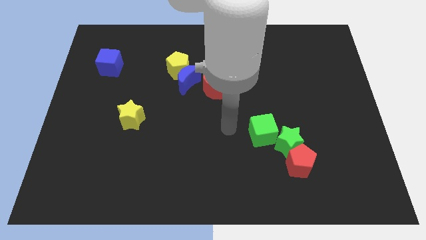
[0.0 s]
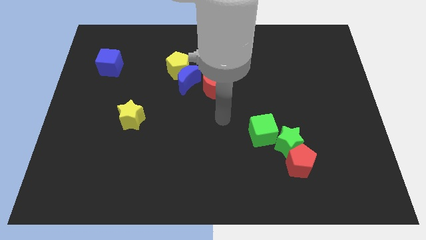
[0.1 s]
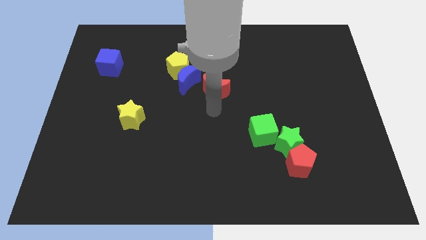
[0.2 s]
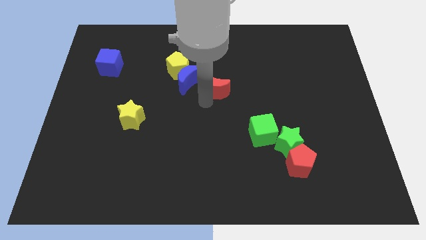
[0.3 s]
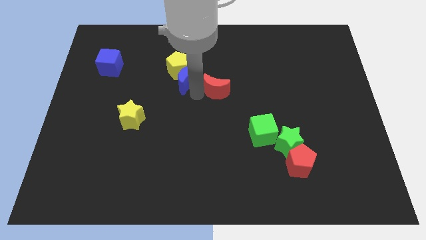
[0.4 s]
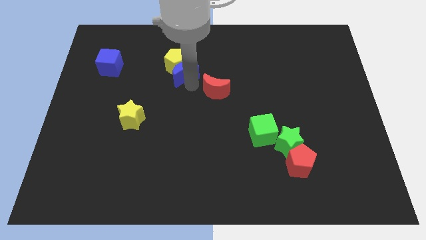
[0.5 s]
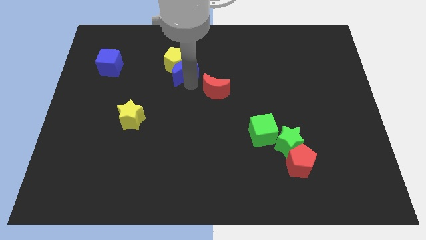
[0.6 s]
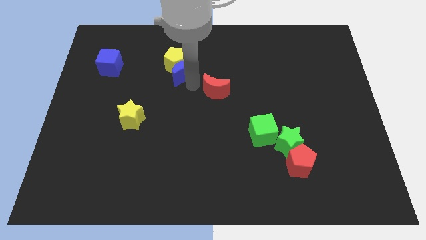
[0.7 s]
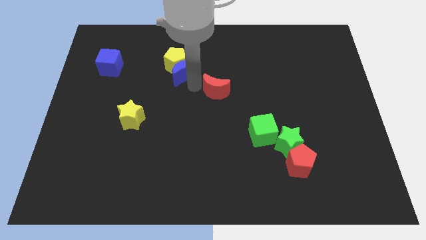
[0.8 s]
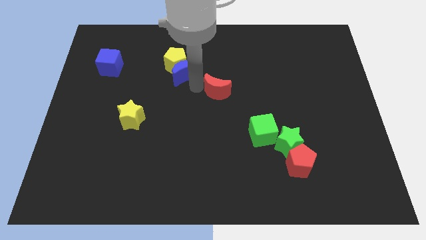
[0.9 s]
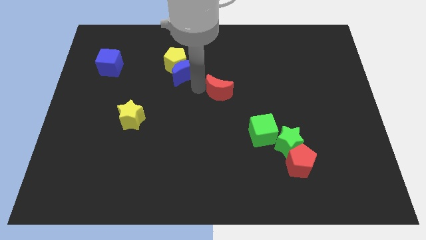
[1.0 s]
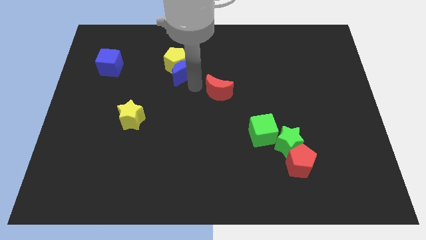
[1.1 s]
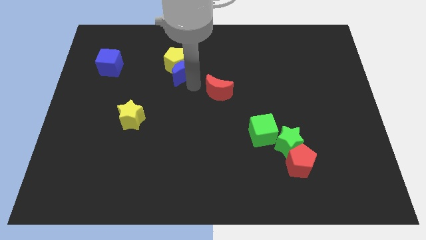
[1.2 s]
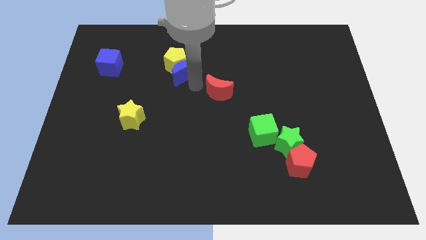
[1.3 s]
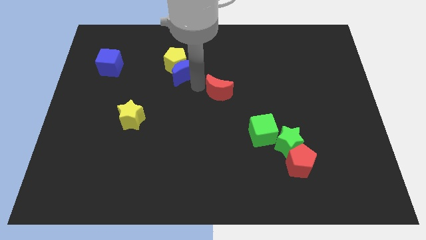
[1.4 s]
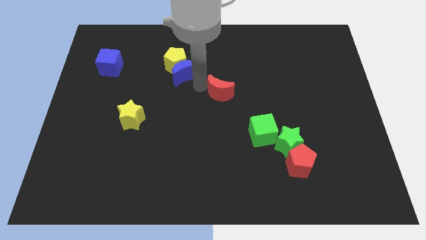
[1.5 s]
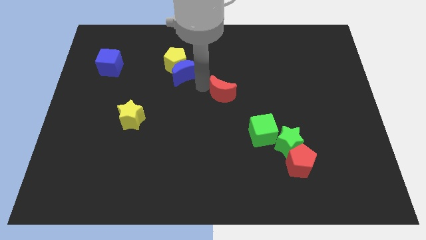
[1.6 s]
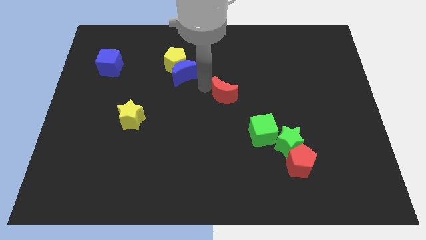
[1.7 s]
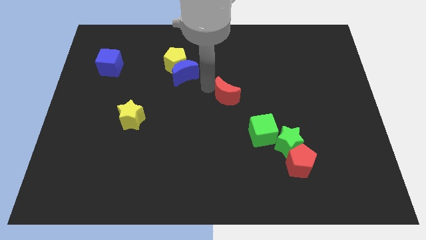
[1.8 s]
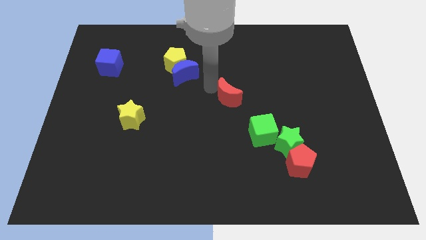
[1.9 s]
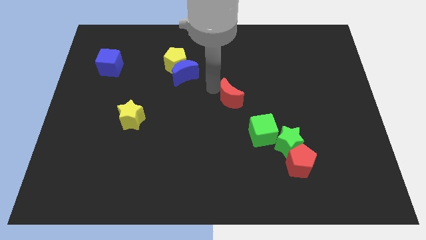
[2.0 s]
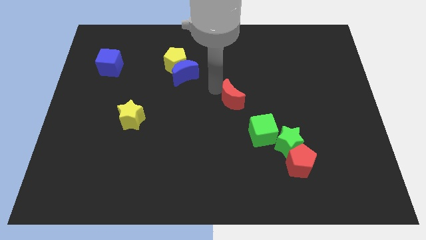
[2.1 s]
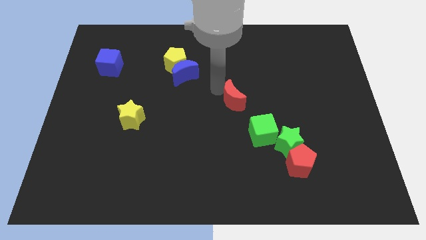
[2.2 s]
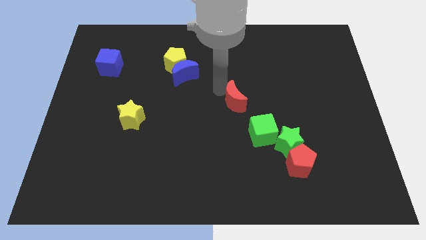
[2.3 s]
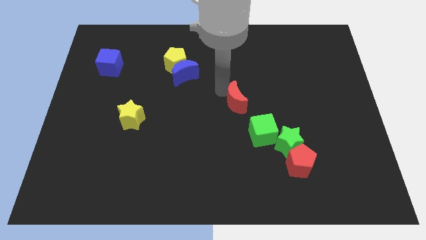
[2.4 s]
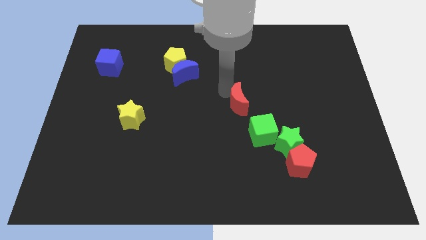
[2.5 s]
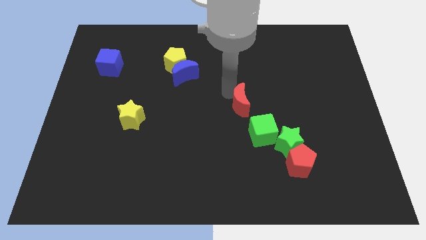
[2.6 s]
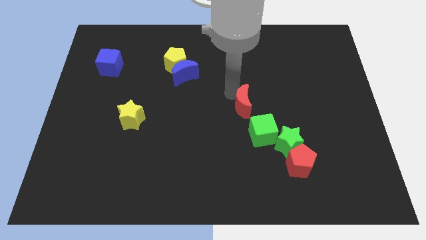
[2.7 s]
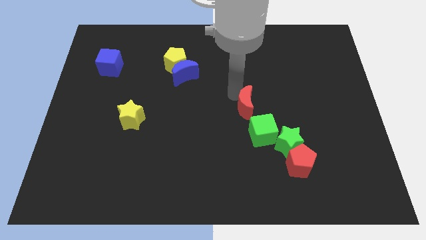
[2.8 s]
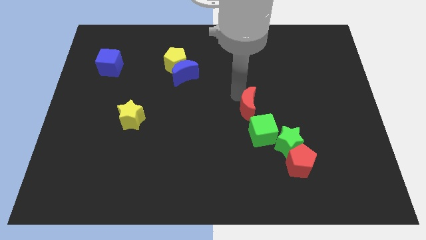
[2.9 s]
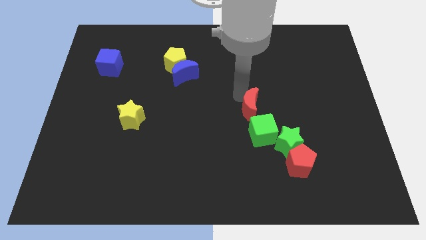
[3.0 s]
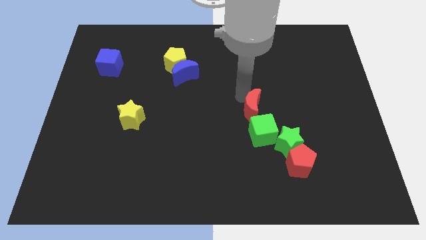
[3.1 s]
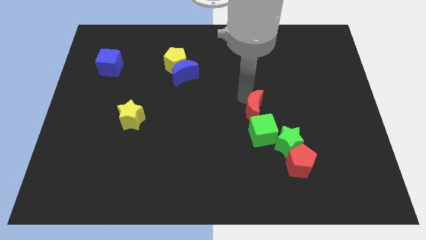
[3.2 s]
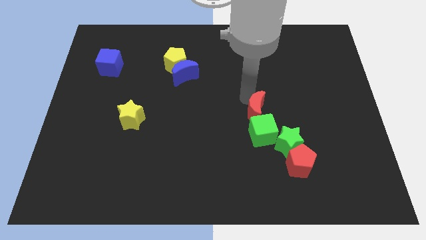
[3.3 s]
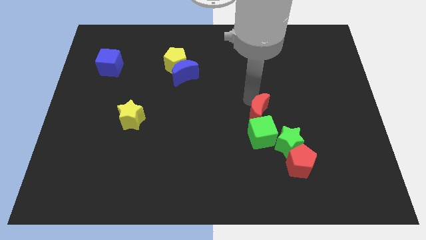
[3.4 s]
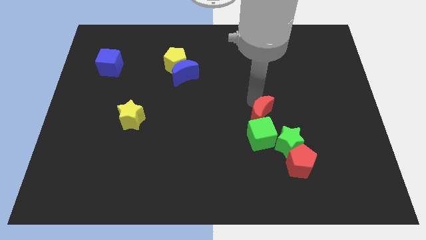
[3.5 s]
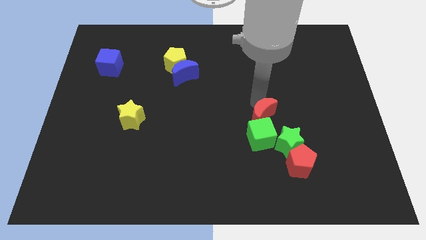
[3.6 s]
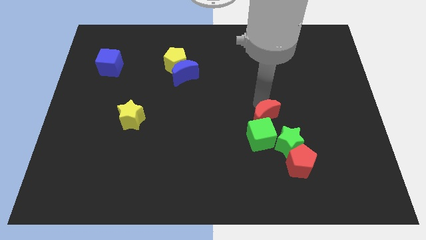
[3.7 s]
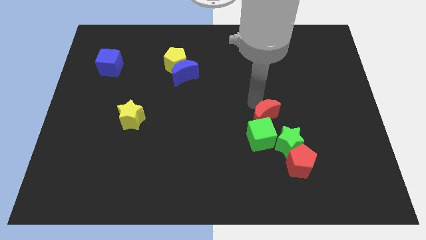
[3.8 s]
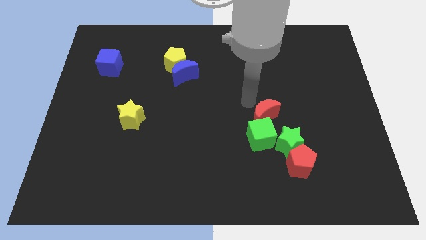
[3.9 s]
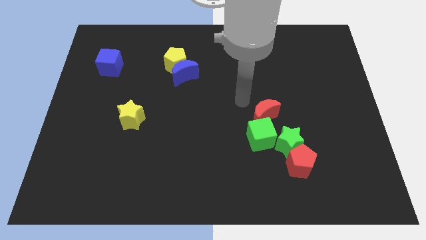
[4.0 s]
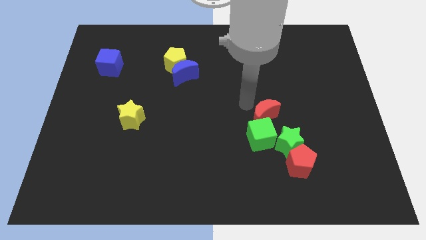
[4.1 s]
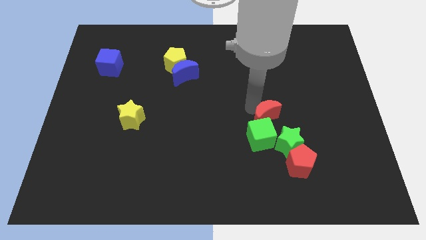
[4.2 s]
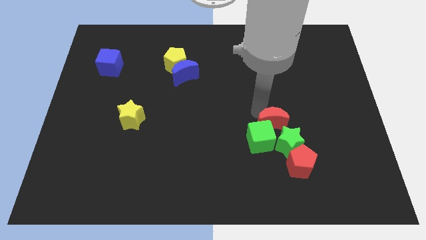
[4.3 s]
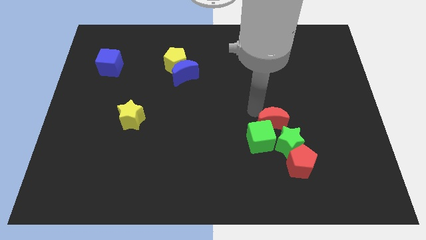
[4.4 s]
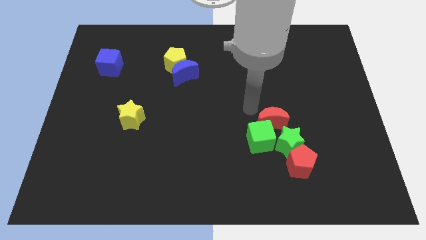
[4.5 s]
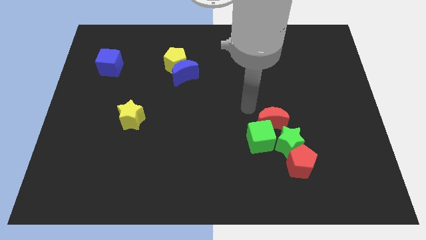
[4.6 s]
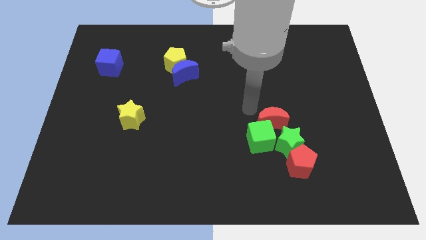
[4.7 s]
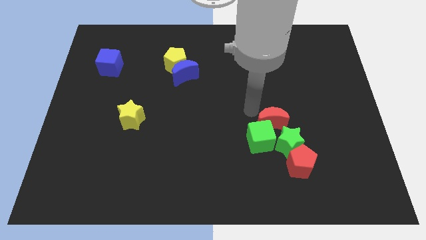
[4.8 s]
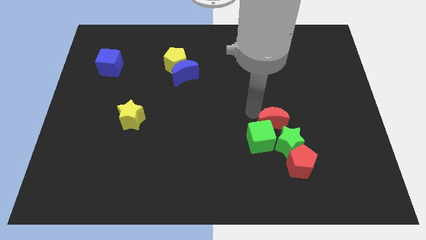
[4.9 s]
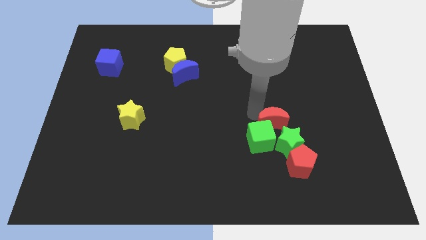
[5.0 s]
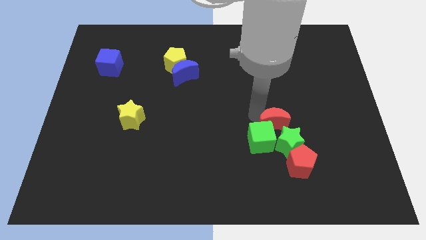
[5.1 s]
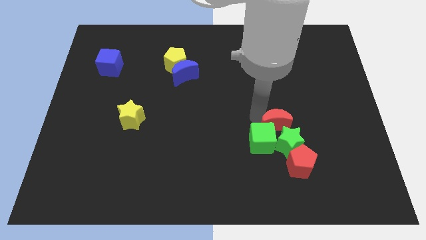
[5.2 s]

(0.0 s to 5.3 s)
push the red moon to the green star

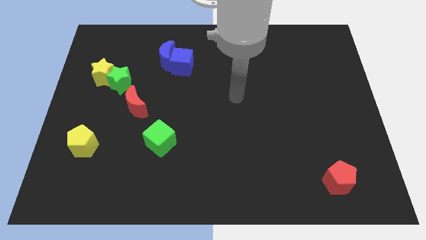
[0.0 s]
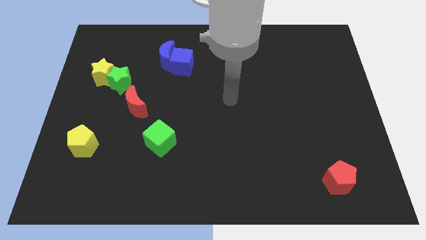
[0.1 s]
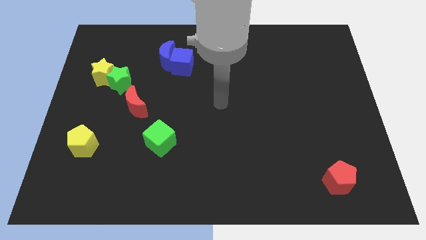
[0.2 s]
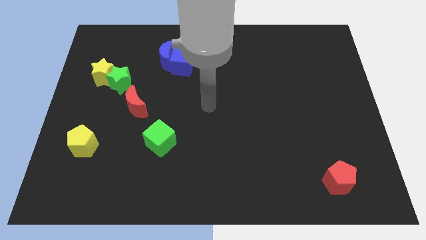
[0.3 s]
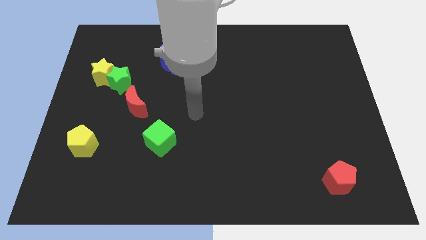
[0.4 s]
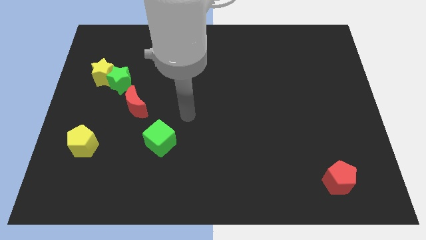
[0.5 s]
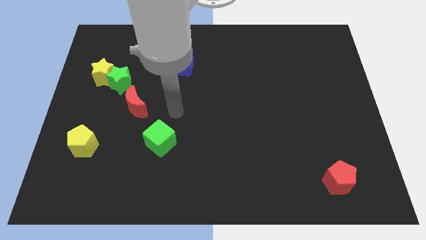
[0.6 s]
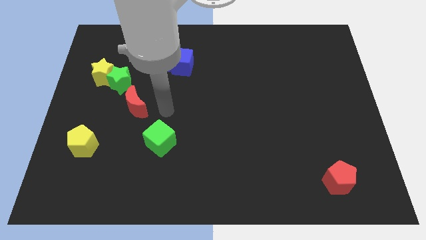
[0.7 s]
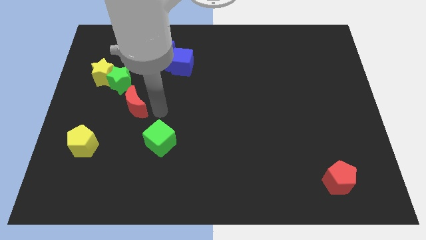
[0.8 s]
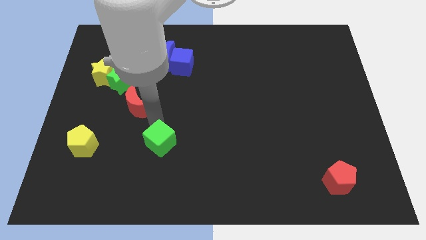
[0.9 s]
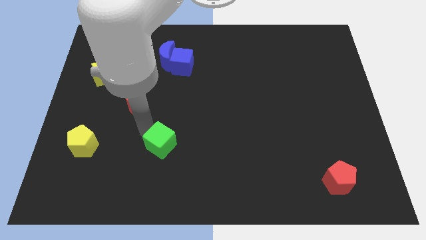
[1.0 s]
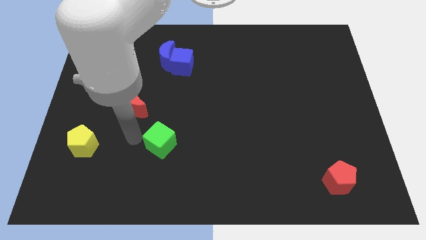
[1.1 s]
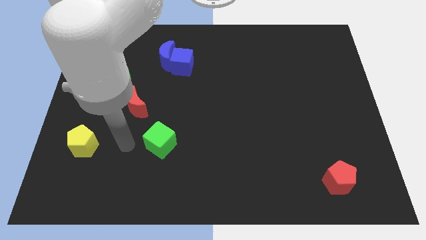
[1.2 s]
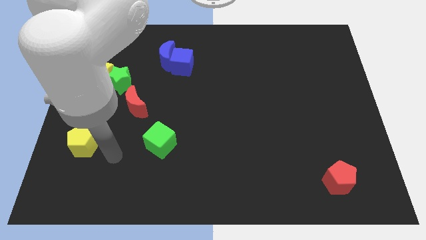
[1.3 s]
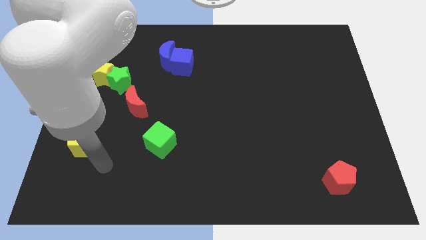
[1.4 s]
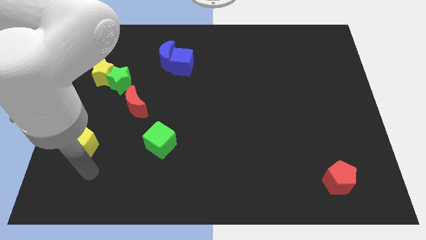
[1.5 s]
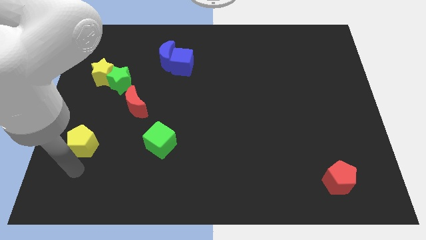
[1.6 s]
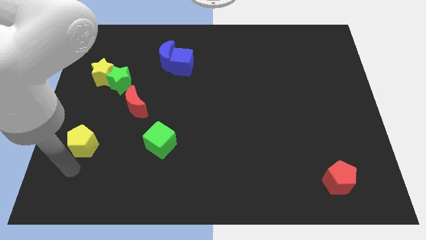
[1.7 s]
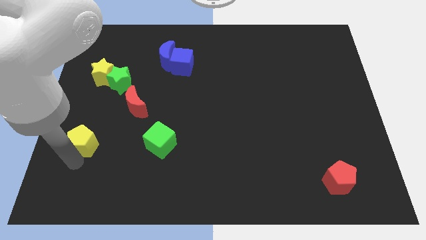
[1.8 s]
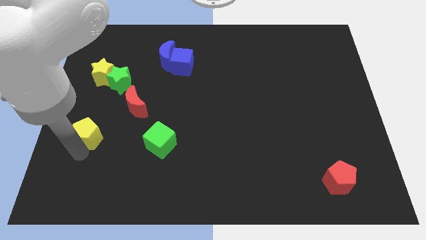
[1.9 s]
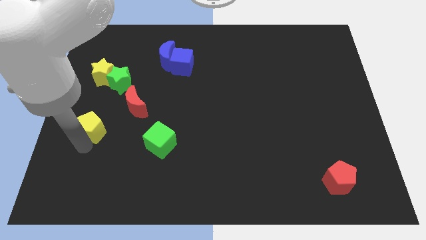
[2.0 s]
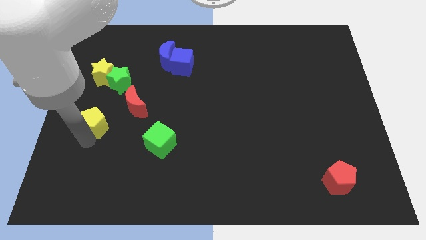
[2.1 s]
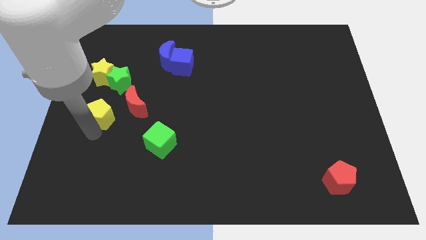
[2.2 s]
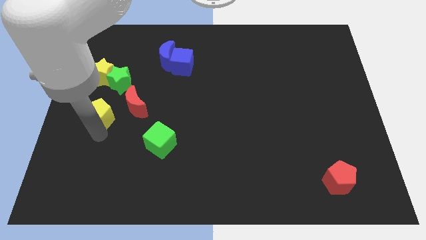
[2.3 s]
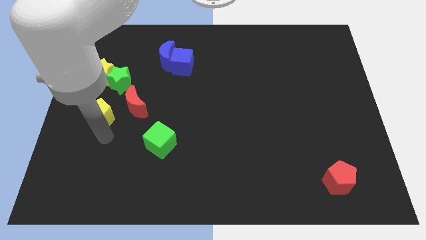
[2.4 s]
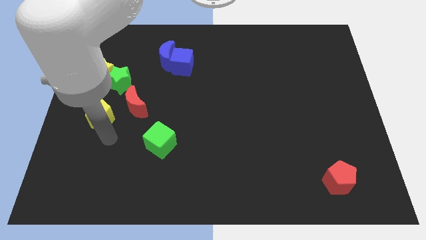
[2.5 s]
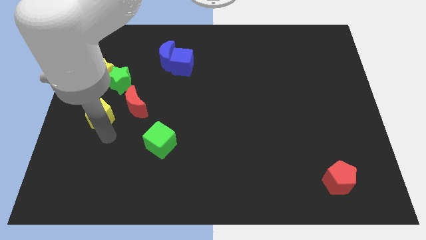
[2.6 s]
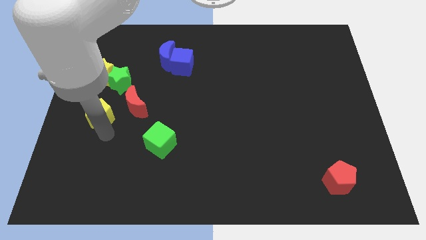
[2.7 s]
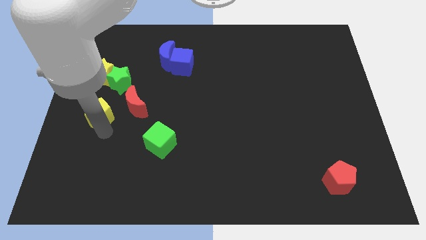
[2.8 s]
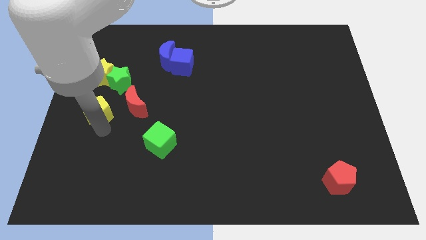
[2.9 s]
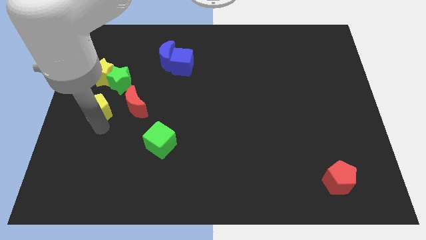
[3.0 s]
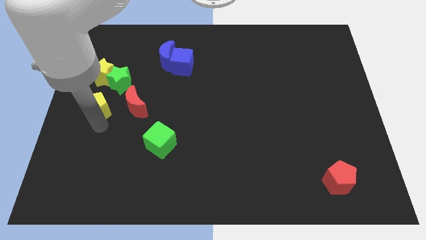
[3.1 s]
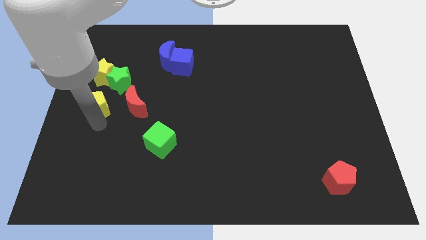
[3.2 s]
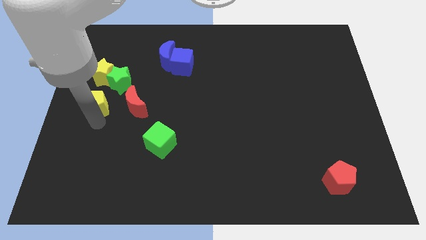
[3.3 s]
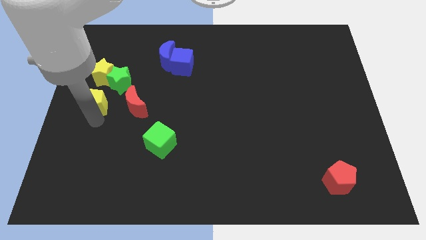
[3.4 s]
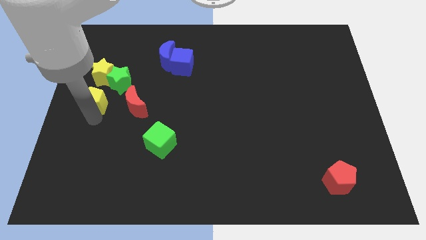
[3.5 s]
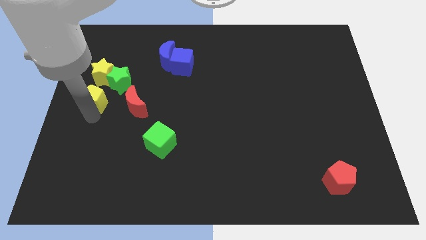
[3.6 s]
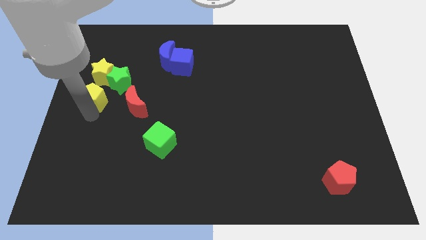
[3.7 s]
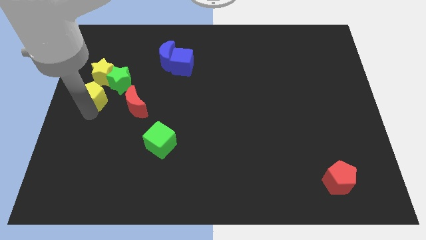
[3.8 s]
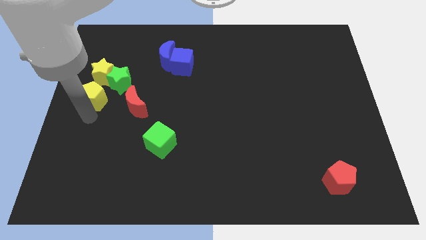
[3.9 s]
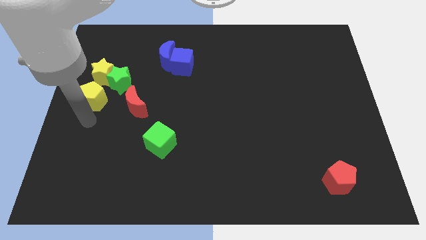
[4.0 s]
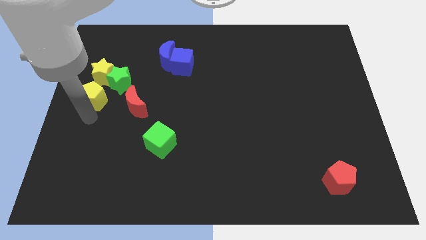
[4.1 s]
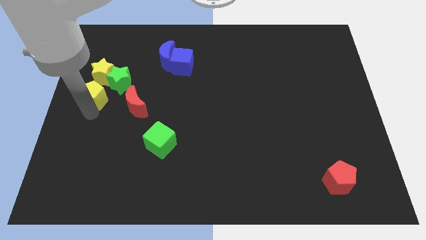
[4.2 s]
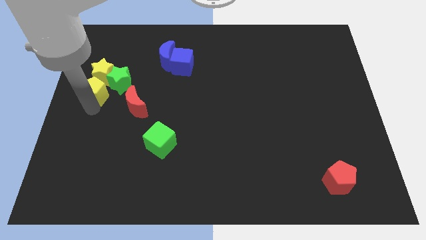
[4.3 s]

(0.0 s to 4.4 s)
push the yellow pentagon next to the yellow star
